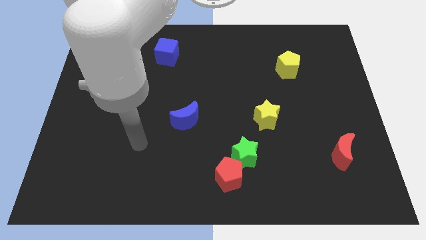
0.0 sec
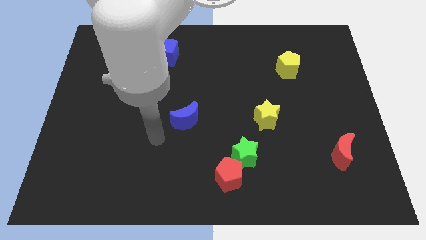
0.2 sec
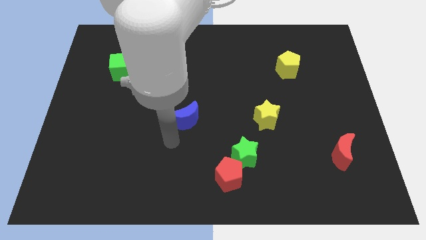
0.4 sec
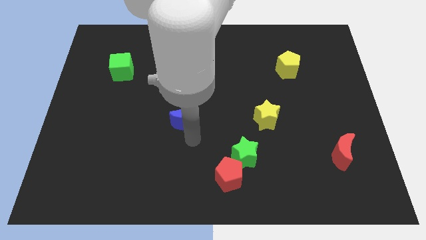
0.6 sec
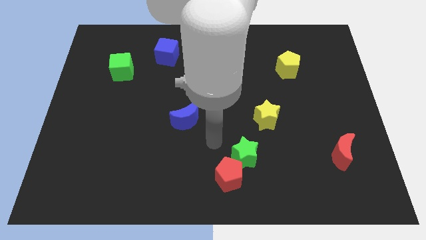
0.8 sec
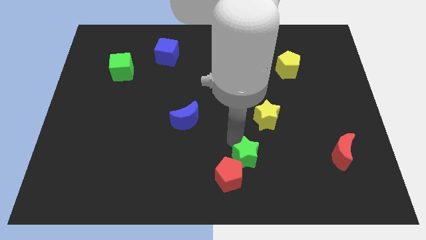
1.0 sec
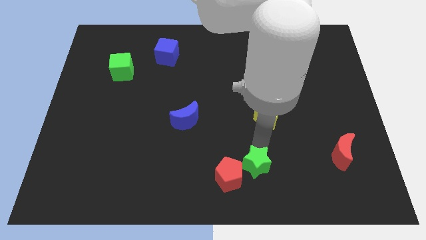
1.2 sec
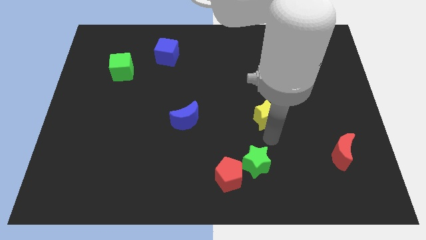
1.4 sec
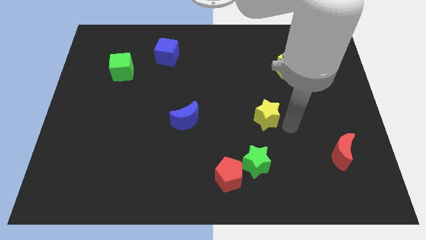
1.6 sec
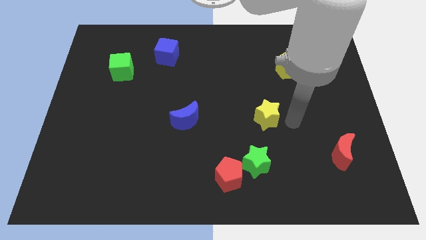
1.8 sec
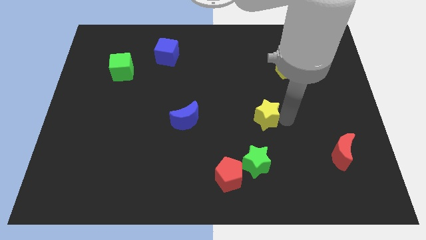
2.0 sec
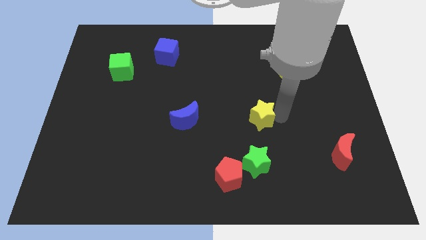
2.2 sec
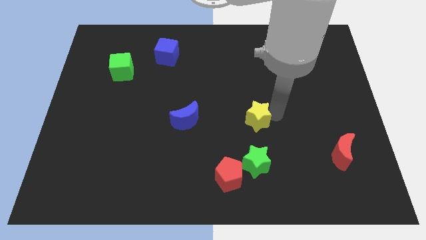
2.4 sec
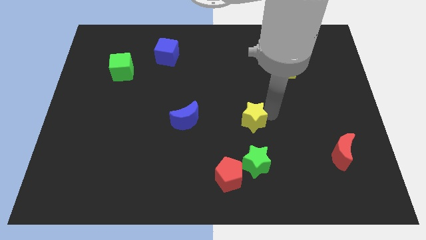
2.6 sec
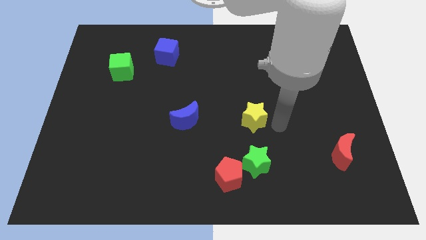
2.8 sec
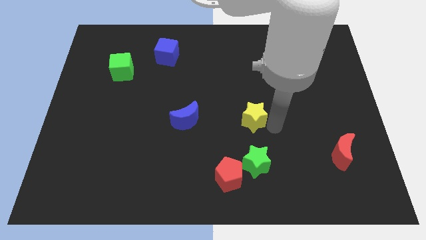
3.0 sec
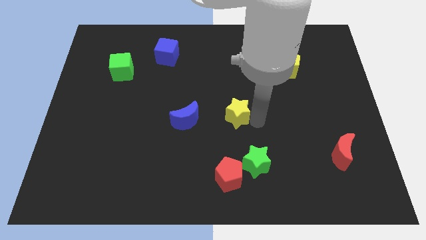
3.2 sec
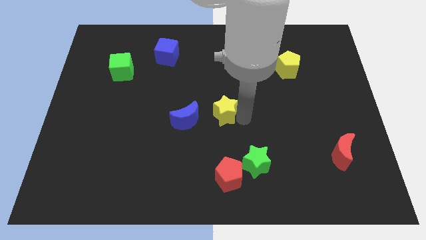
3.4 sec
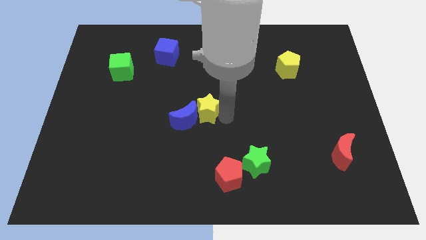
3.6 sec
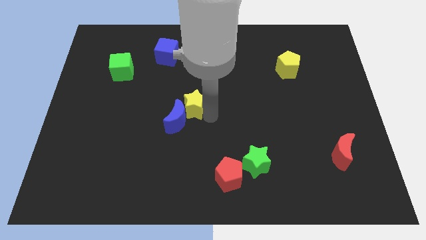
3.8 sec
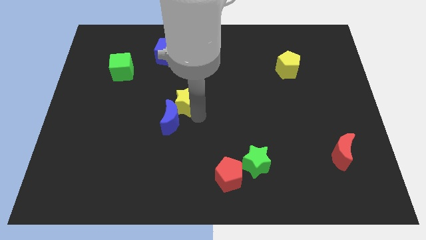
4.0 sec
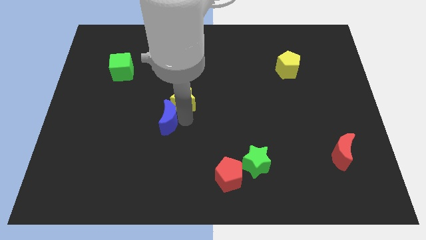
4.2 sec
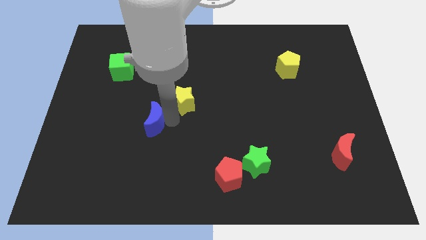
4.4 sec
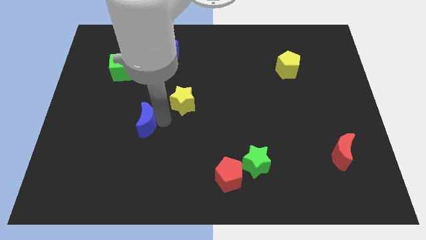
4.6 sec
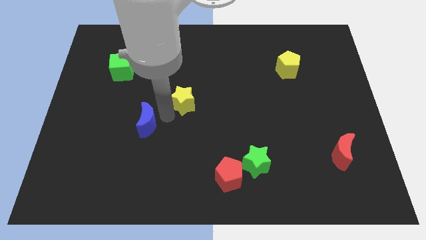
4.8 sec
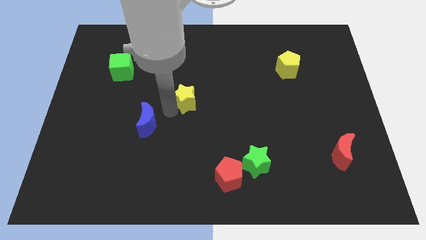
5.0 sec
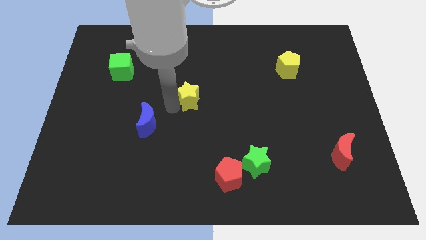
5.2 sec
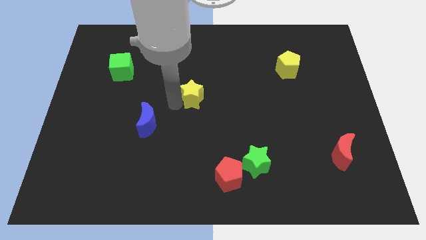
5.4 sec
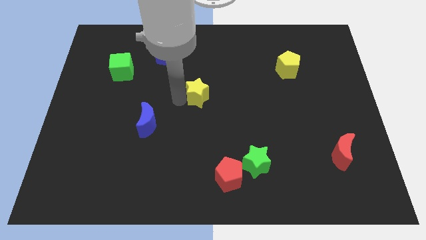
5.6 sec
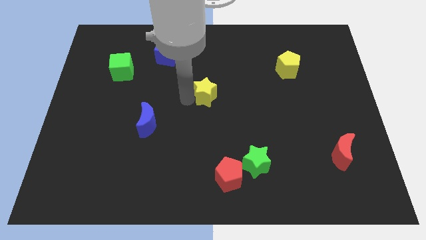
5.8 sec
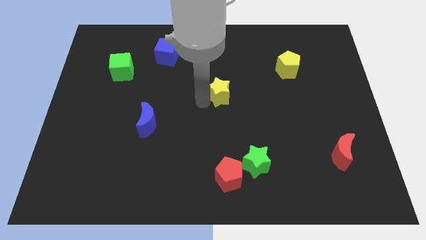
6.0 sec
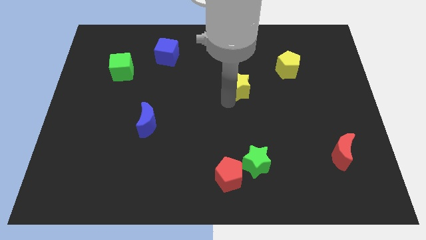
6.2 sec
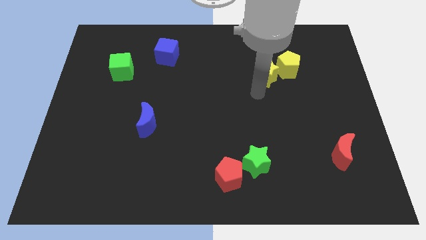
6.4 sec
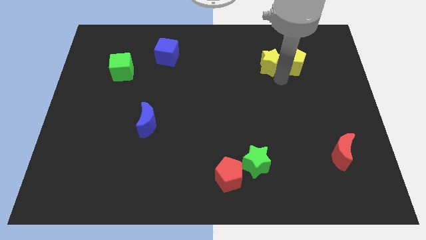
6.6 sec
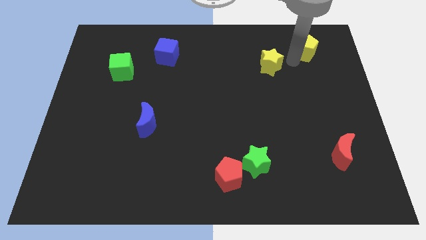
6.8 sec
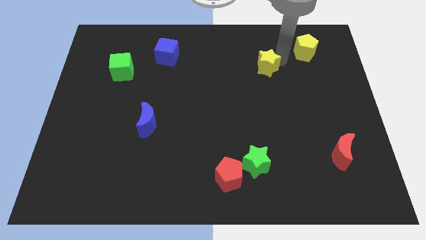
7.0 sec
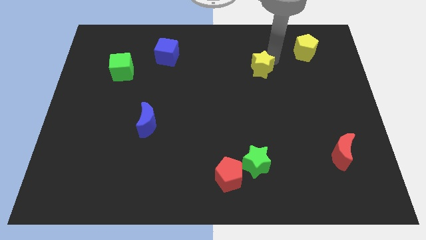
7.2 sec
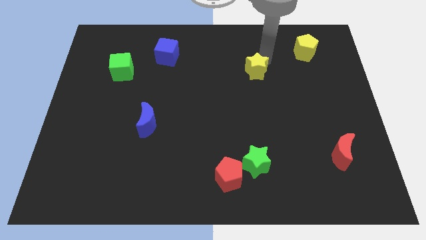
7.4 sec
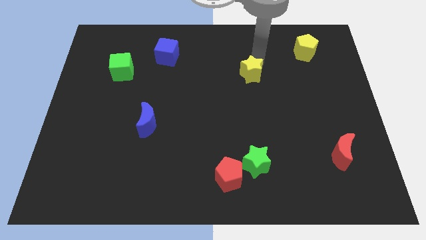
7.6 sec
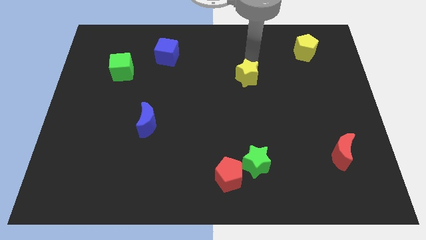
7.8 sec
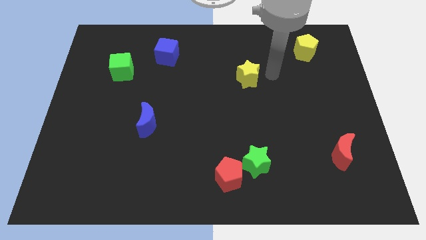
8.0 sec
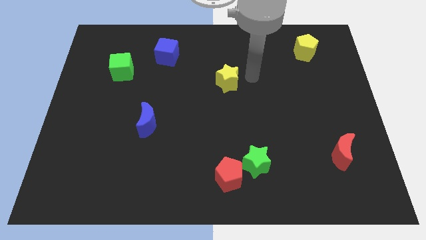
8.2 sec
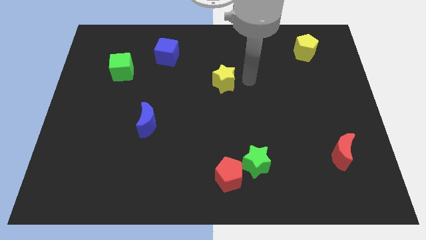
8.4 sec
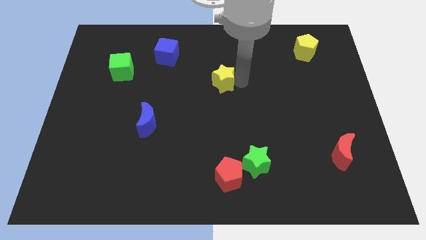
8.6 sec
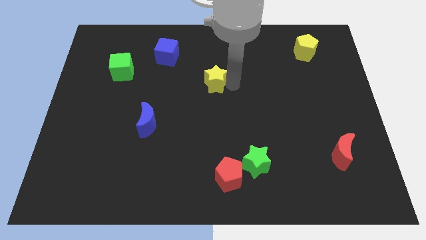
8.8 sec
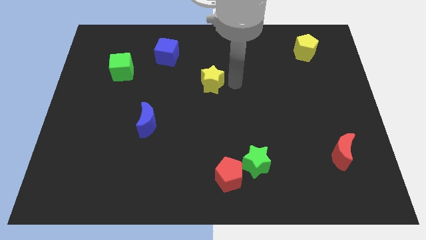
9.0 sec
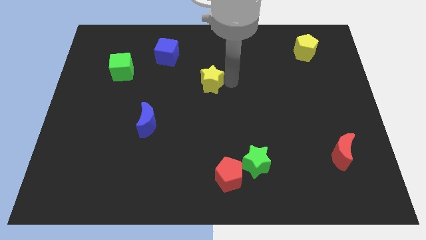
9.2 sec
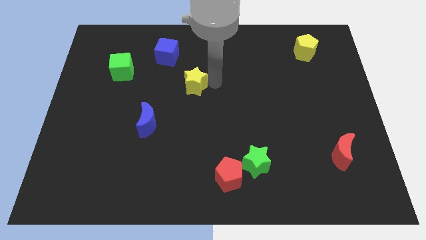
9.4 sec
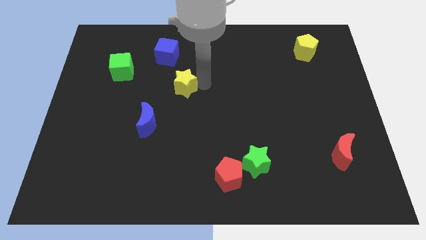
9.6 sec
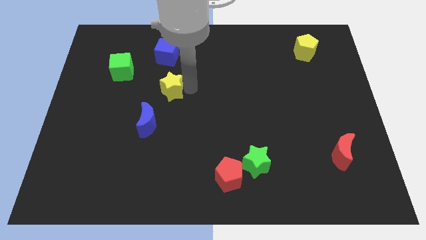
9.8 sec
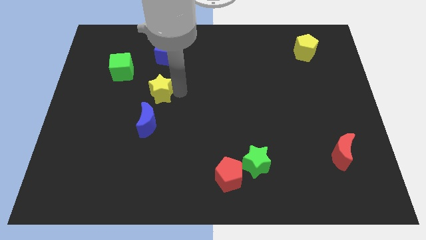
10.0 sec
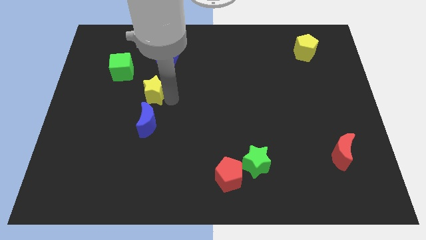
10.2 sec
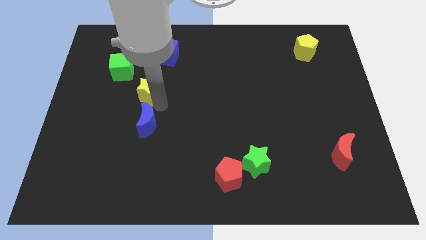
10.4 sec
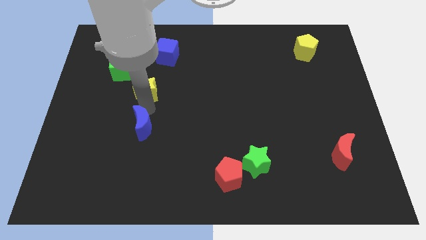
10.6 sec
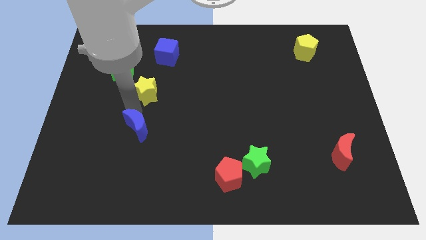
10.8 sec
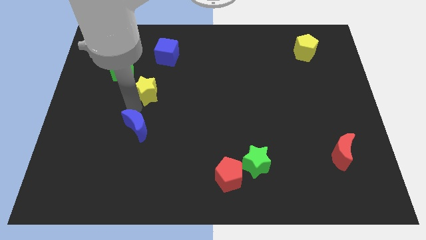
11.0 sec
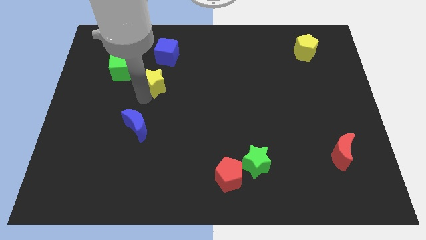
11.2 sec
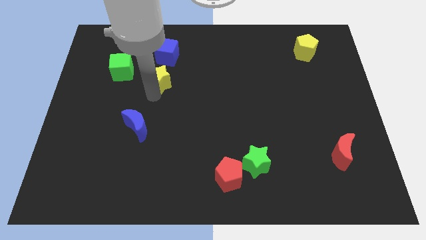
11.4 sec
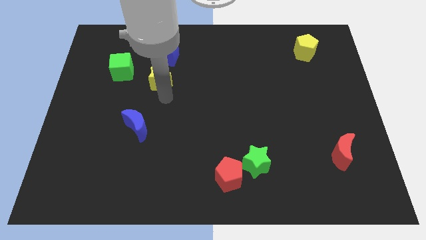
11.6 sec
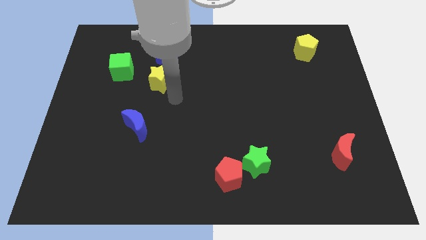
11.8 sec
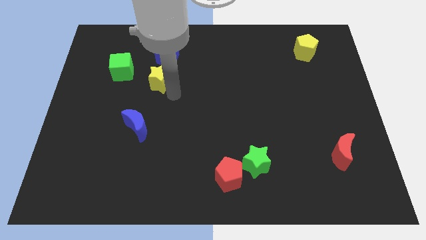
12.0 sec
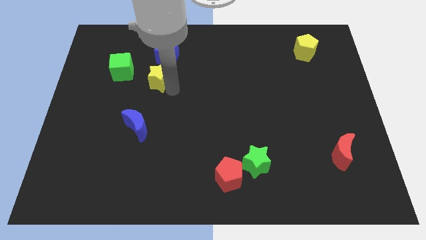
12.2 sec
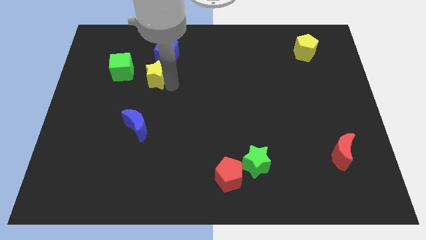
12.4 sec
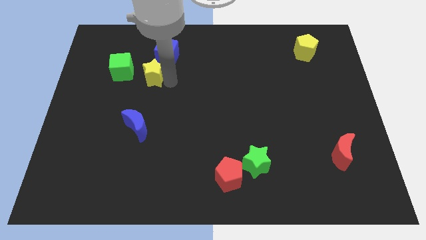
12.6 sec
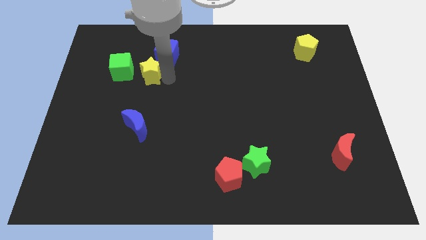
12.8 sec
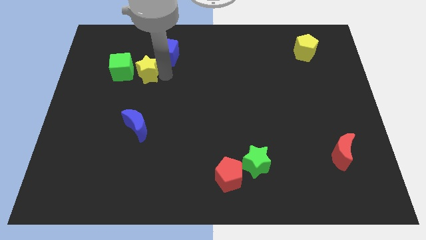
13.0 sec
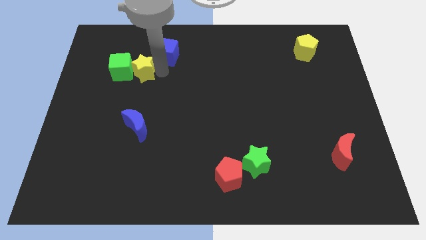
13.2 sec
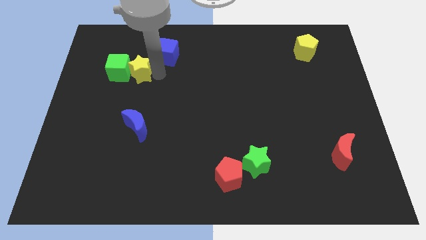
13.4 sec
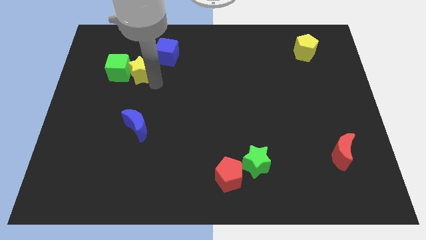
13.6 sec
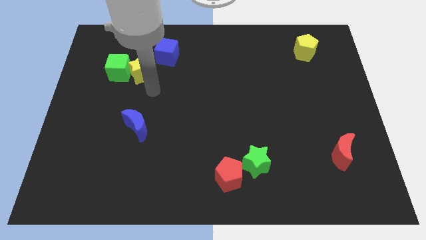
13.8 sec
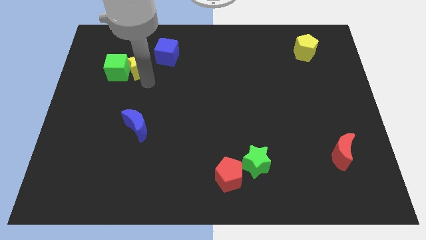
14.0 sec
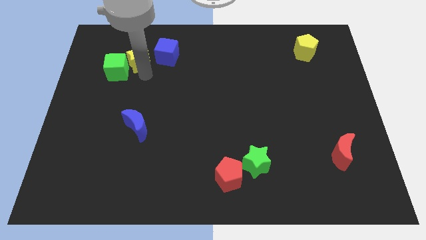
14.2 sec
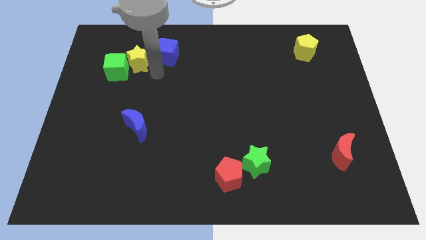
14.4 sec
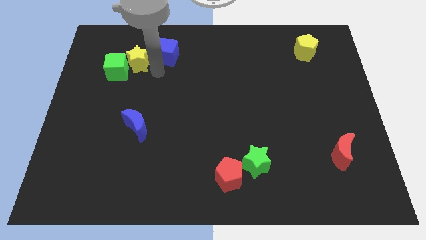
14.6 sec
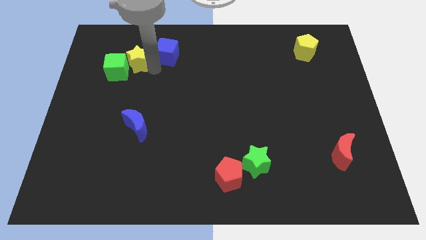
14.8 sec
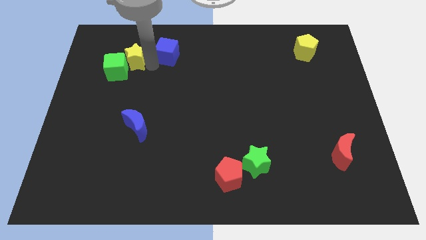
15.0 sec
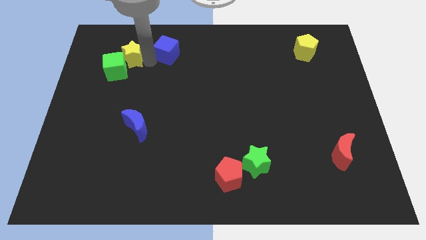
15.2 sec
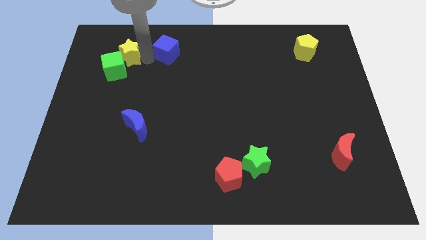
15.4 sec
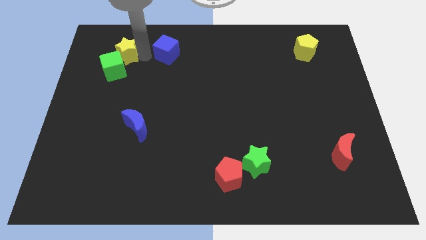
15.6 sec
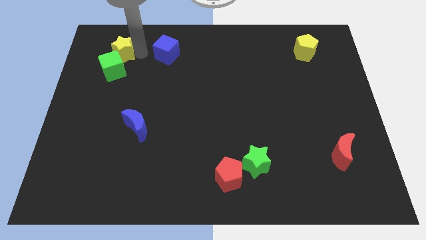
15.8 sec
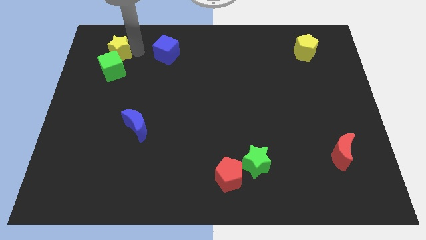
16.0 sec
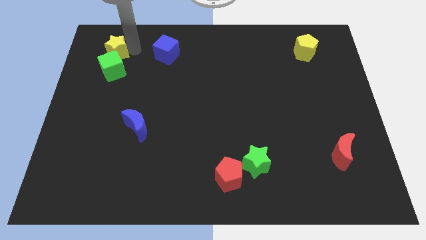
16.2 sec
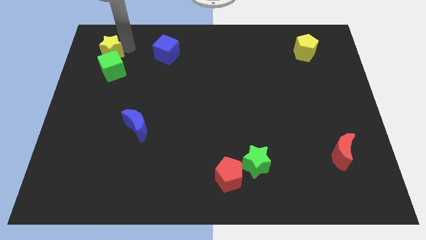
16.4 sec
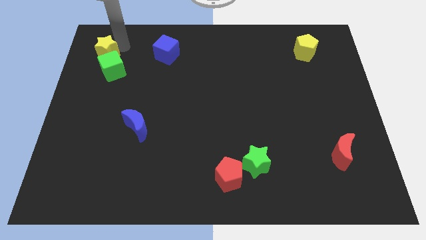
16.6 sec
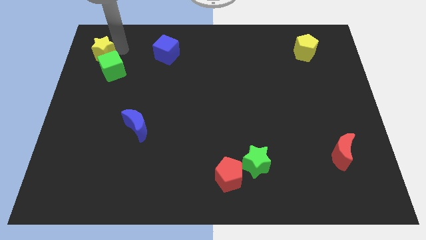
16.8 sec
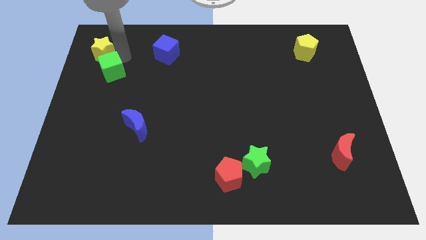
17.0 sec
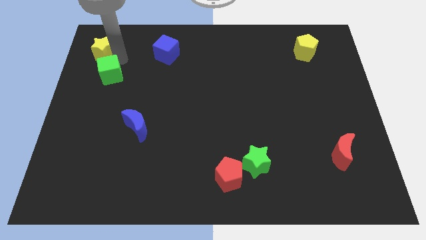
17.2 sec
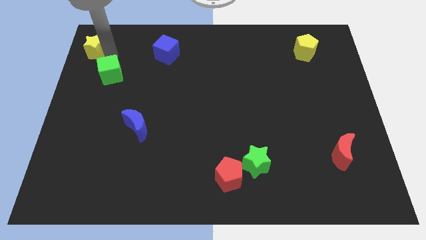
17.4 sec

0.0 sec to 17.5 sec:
put the yellow star to the upper left corner
